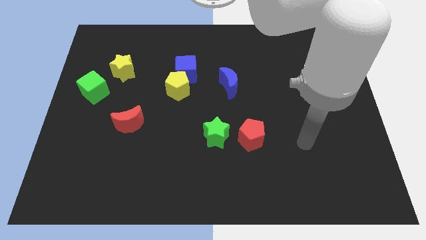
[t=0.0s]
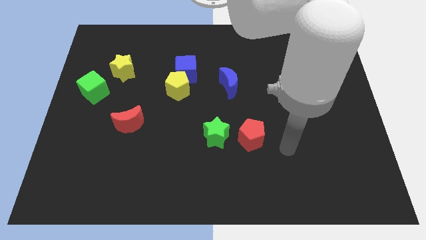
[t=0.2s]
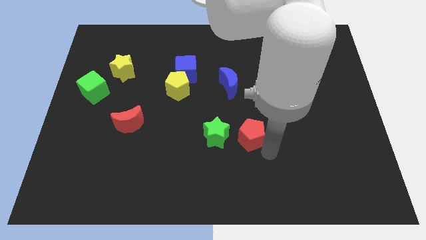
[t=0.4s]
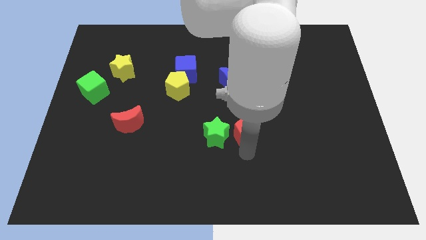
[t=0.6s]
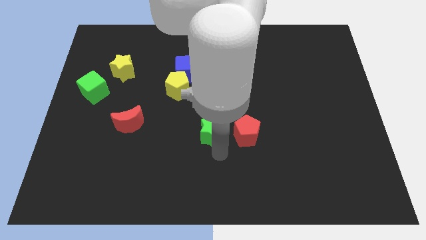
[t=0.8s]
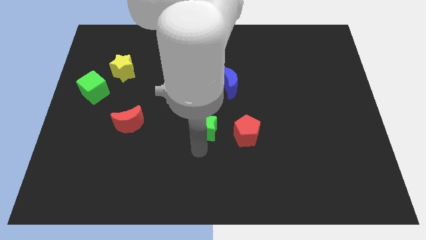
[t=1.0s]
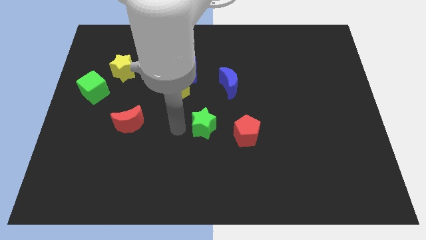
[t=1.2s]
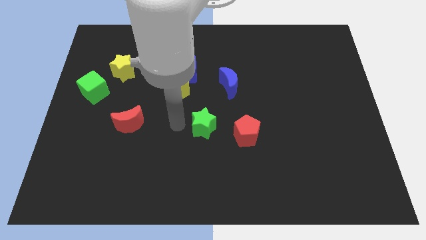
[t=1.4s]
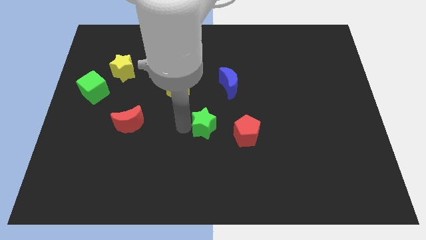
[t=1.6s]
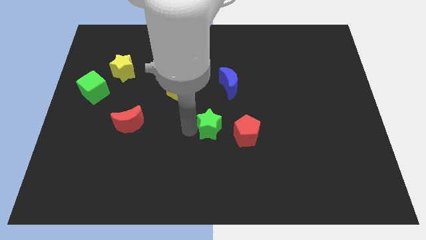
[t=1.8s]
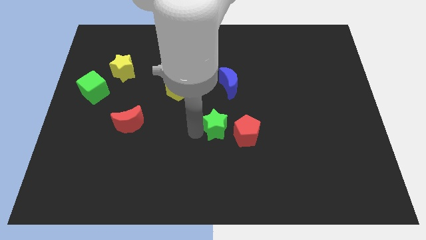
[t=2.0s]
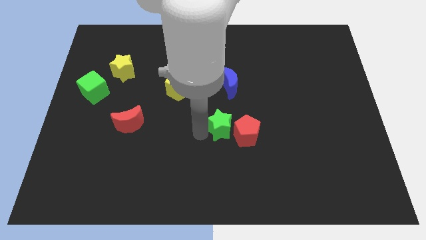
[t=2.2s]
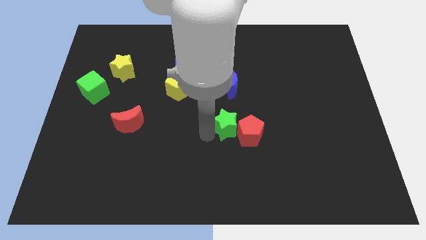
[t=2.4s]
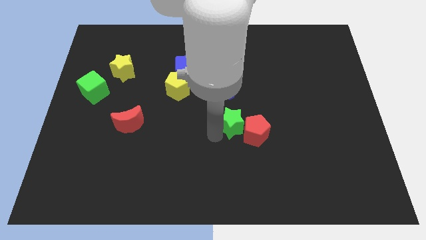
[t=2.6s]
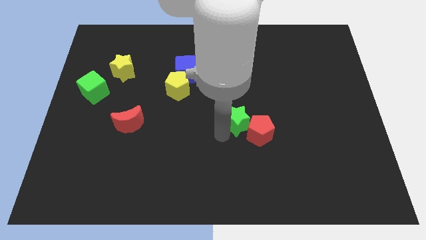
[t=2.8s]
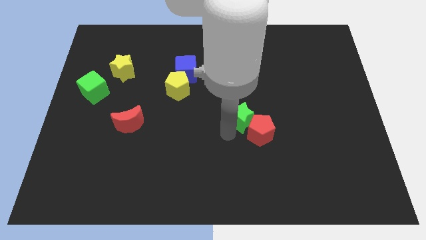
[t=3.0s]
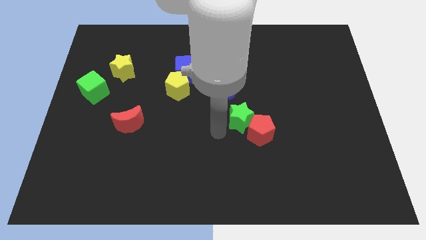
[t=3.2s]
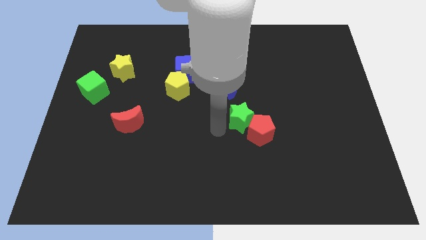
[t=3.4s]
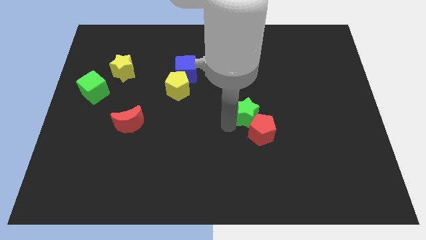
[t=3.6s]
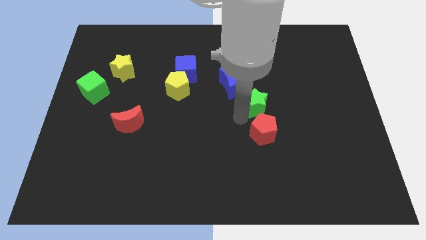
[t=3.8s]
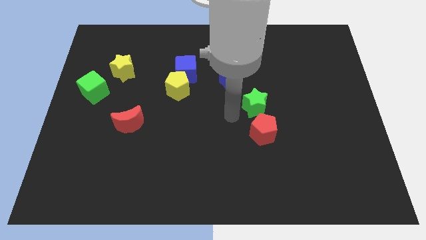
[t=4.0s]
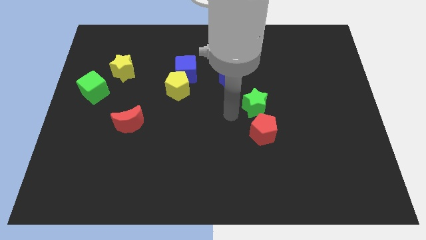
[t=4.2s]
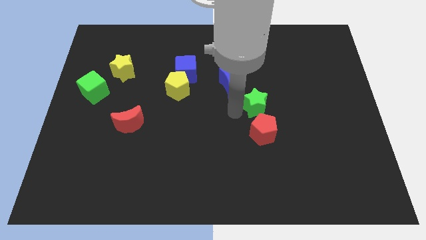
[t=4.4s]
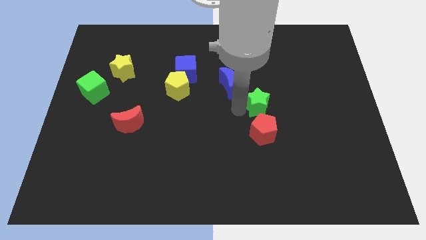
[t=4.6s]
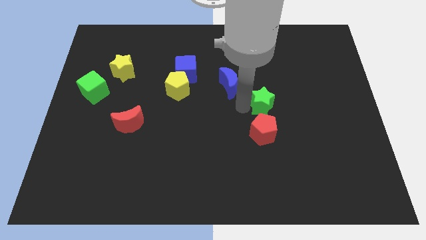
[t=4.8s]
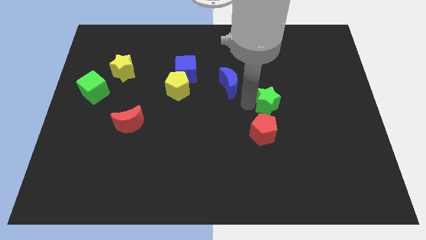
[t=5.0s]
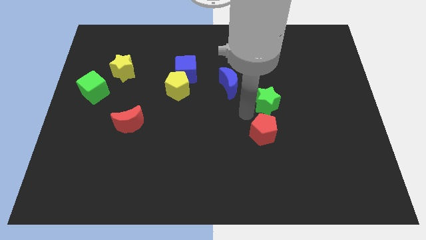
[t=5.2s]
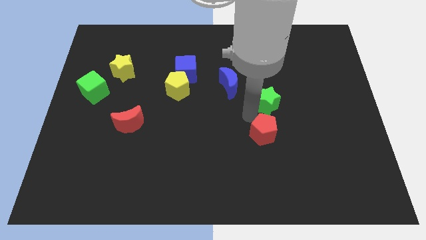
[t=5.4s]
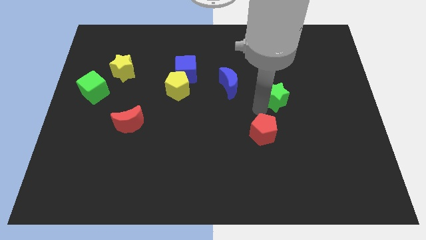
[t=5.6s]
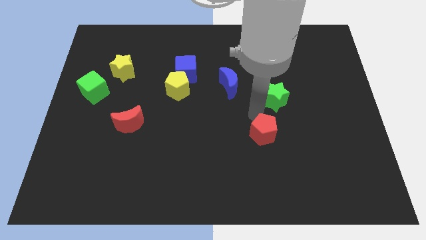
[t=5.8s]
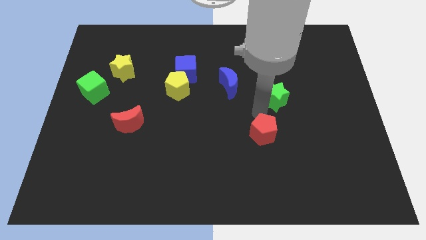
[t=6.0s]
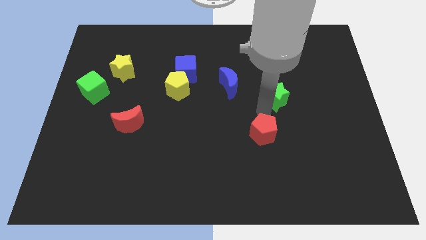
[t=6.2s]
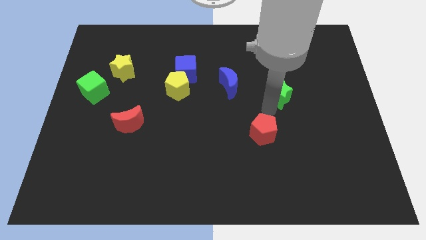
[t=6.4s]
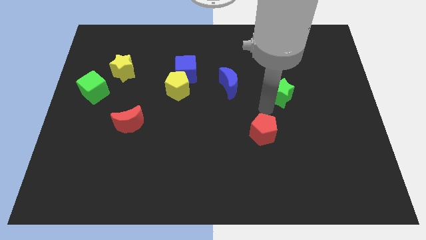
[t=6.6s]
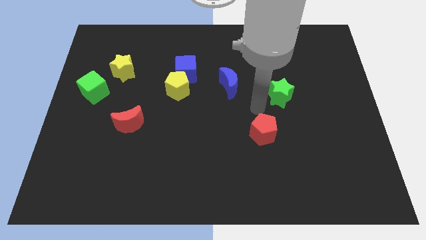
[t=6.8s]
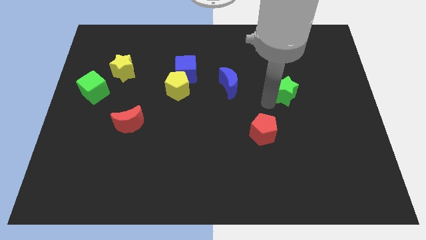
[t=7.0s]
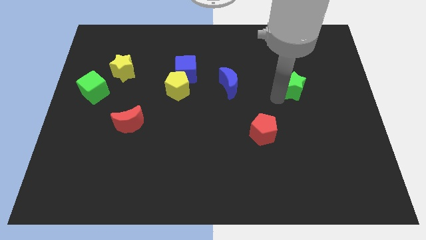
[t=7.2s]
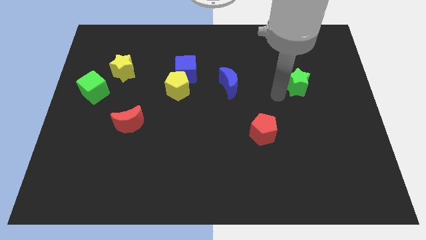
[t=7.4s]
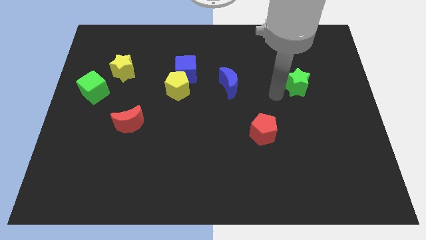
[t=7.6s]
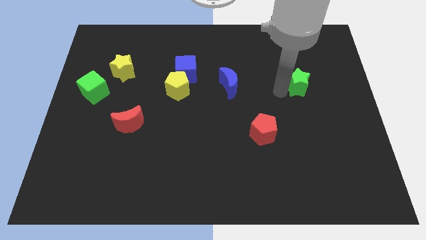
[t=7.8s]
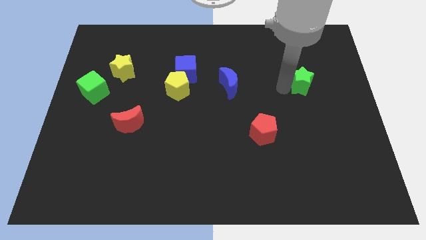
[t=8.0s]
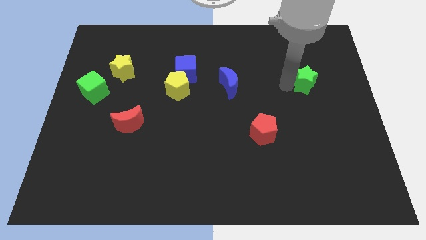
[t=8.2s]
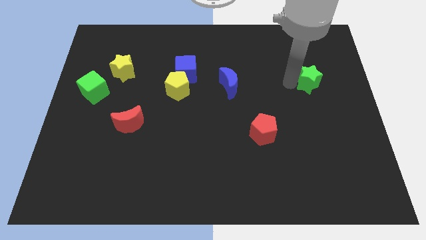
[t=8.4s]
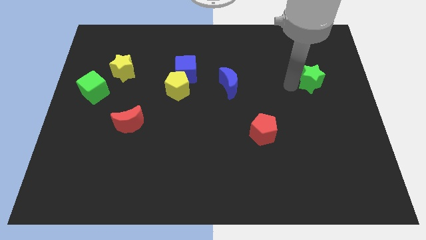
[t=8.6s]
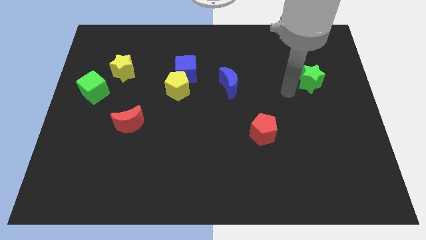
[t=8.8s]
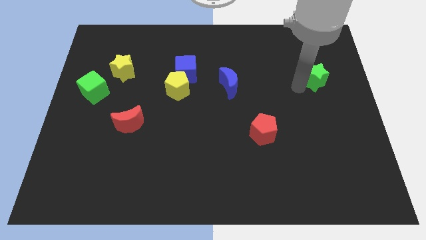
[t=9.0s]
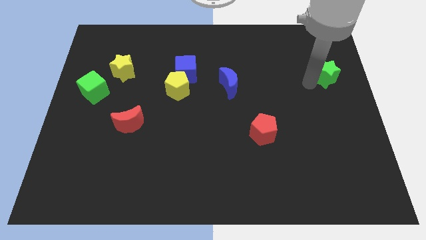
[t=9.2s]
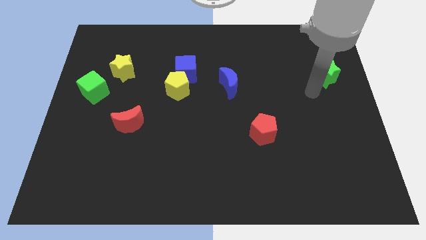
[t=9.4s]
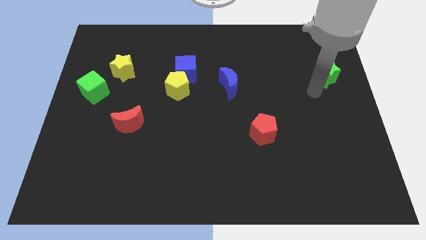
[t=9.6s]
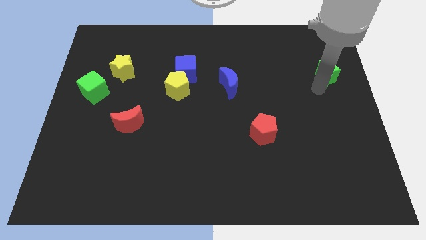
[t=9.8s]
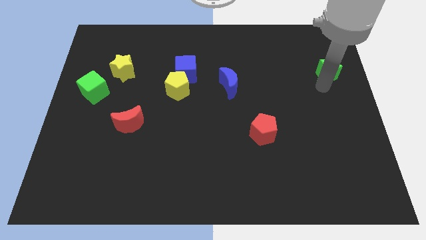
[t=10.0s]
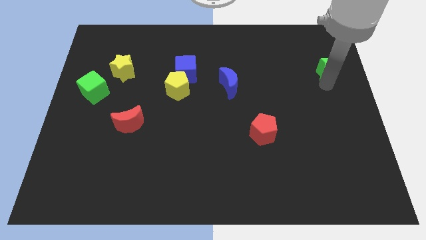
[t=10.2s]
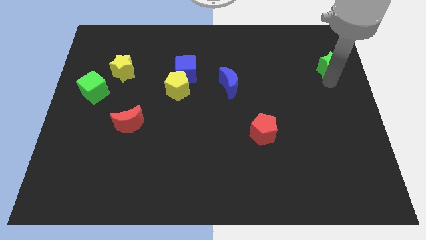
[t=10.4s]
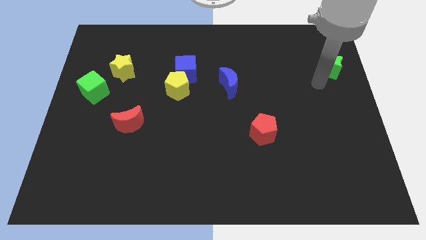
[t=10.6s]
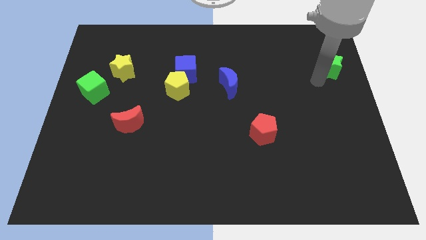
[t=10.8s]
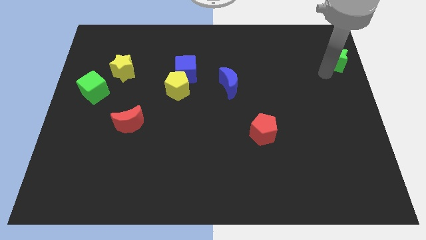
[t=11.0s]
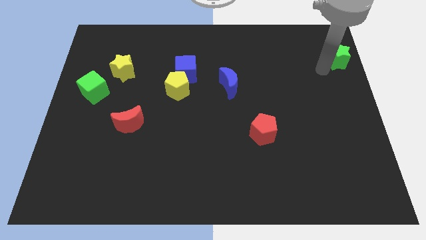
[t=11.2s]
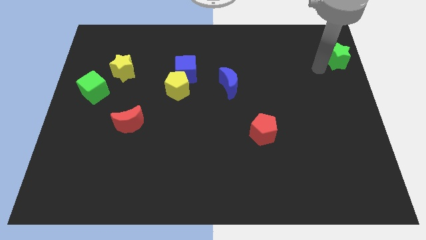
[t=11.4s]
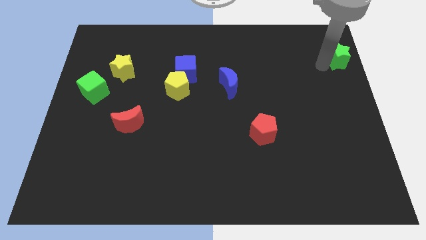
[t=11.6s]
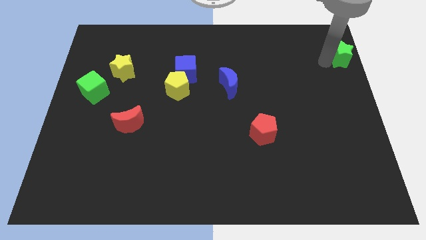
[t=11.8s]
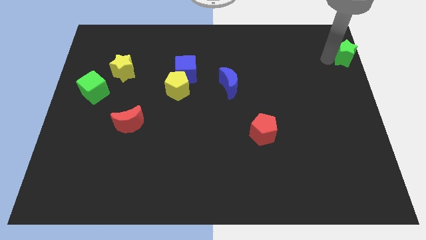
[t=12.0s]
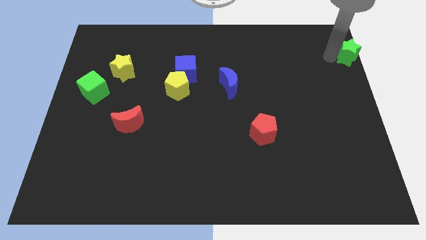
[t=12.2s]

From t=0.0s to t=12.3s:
move the green star to the top right

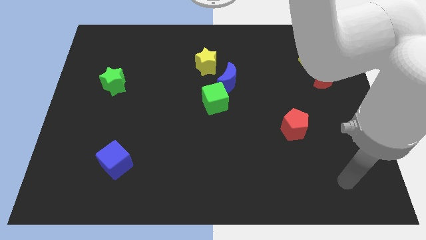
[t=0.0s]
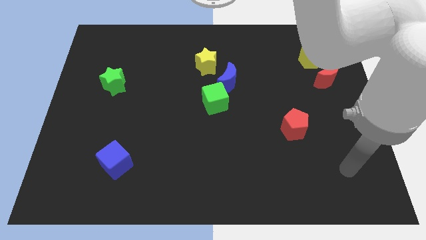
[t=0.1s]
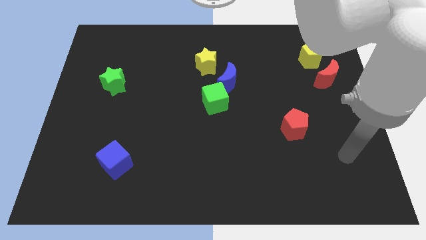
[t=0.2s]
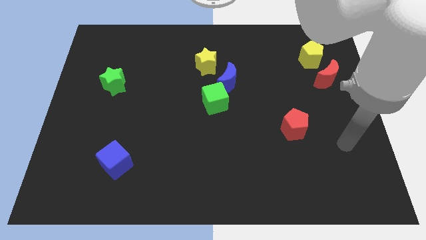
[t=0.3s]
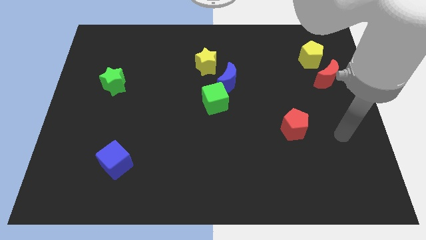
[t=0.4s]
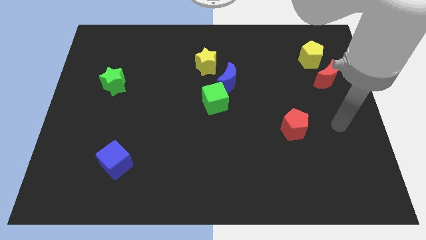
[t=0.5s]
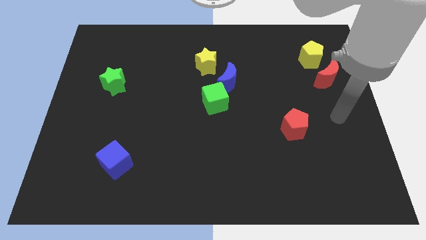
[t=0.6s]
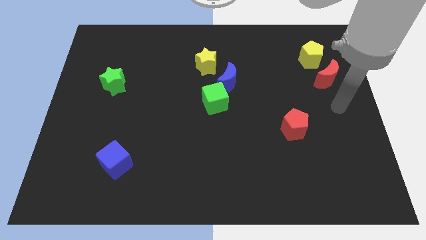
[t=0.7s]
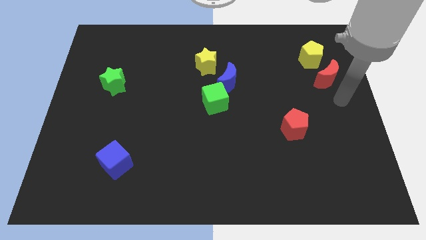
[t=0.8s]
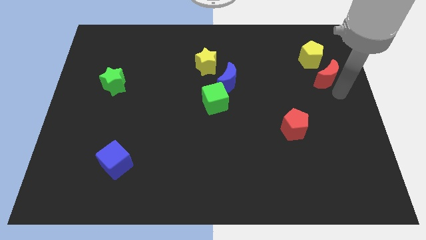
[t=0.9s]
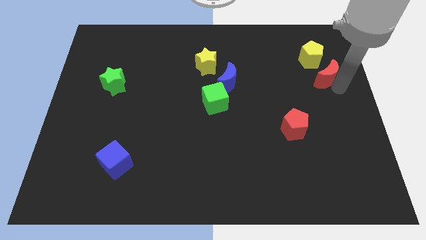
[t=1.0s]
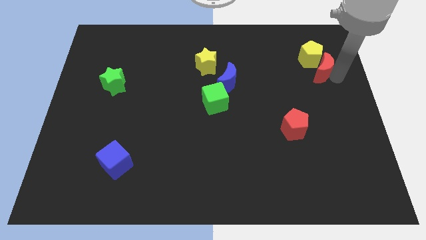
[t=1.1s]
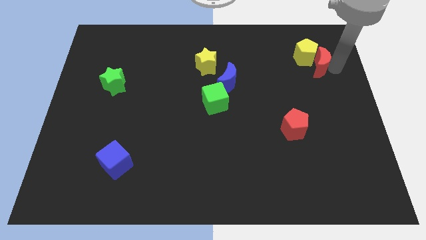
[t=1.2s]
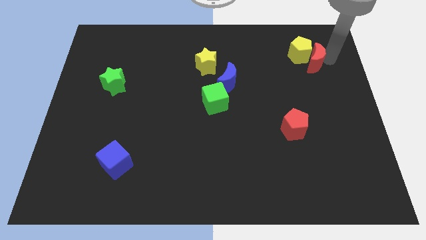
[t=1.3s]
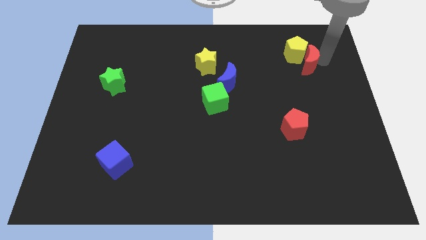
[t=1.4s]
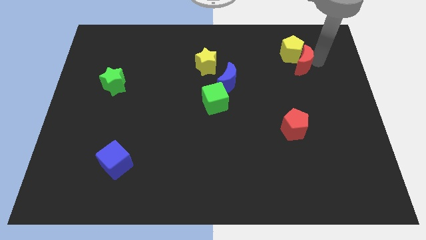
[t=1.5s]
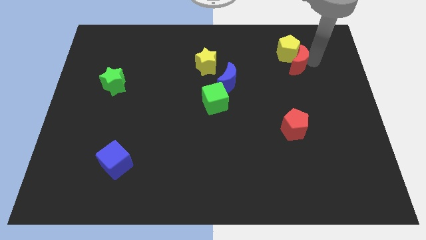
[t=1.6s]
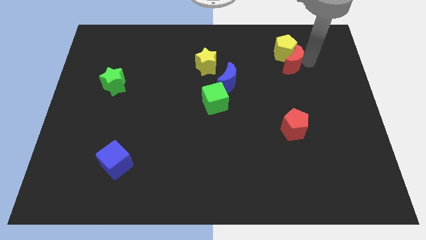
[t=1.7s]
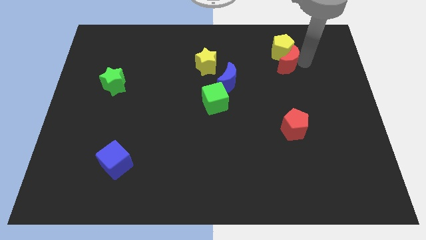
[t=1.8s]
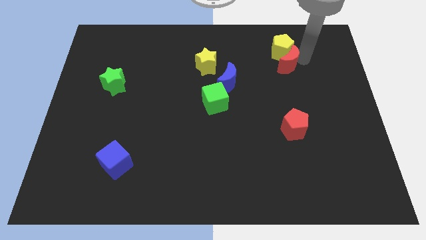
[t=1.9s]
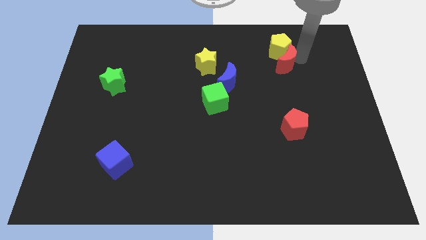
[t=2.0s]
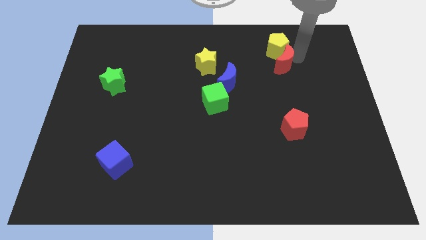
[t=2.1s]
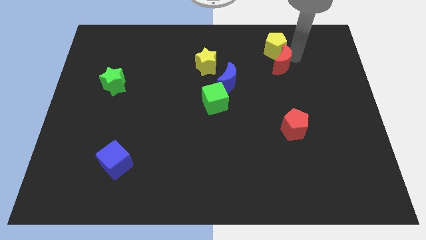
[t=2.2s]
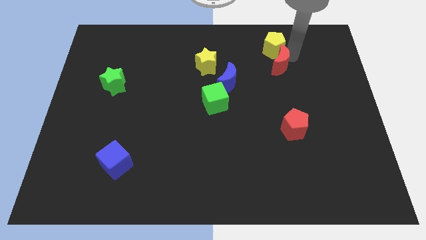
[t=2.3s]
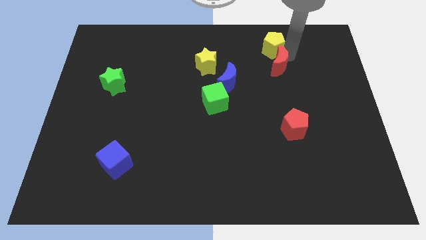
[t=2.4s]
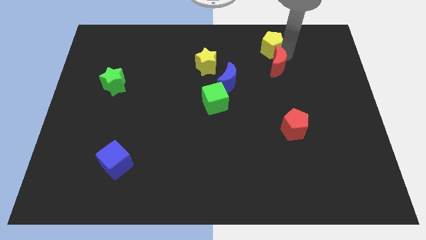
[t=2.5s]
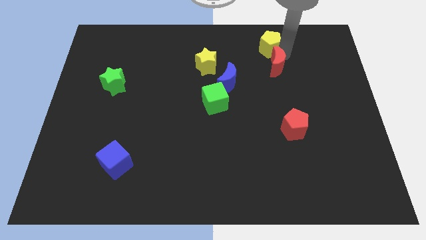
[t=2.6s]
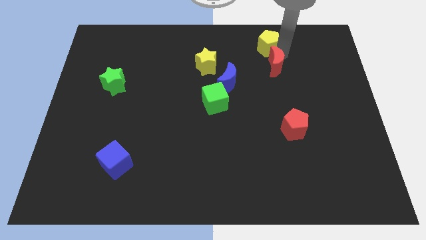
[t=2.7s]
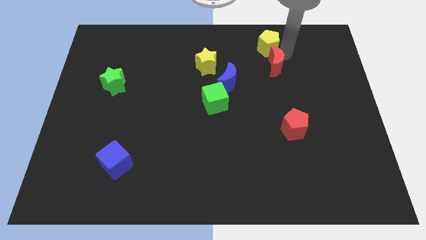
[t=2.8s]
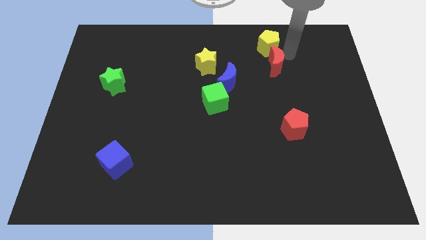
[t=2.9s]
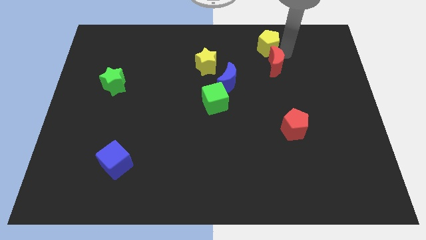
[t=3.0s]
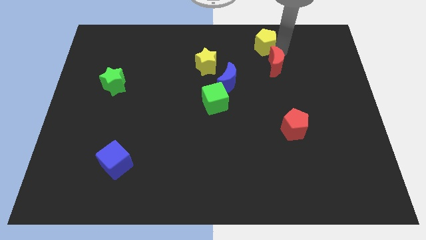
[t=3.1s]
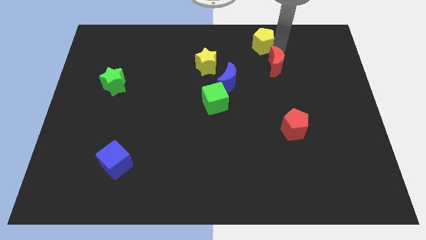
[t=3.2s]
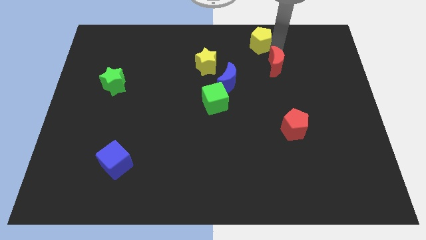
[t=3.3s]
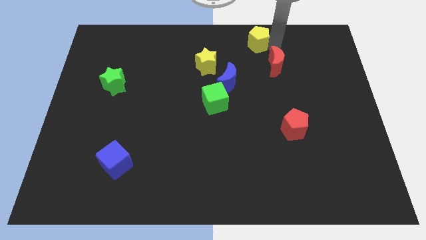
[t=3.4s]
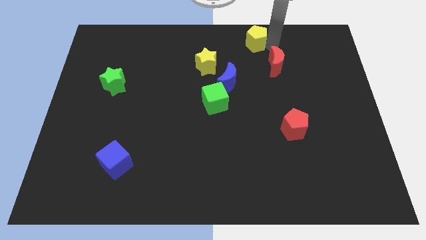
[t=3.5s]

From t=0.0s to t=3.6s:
put the yellow pentagon to the top
